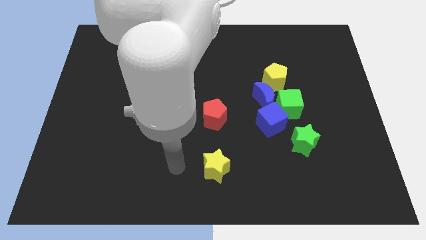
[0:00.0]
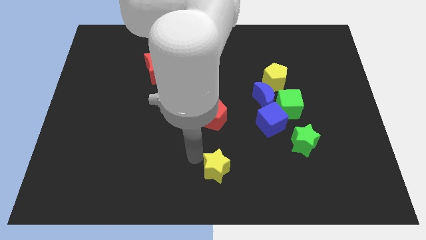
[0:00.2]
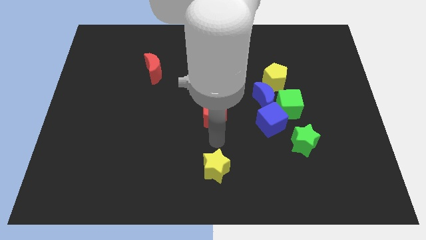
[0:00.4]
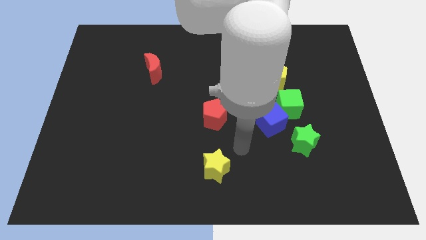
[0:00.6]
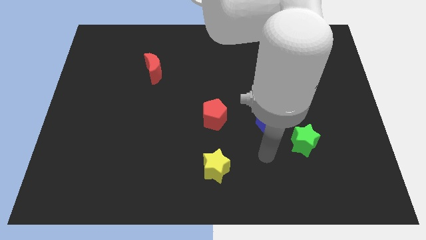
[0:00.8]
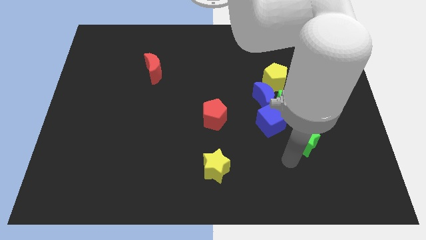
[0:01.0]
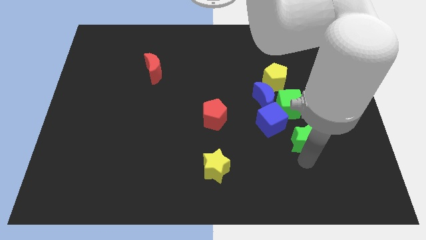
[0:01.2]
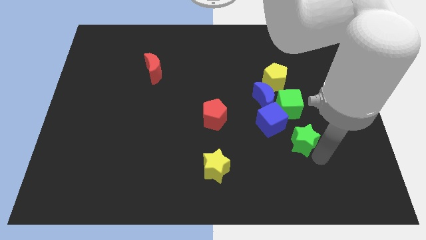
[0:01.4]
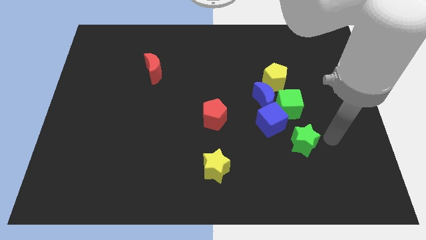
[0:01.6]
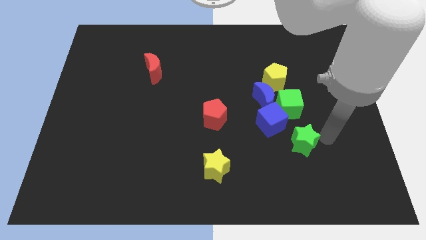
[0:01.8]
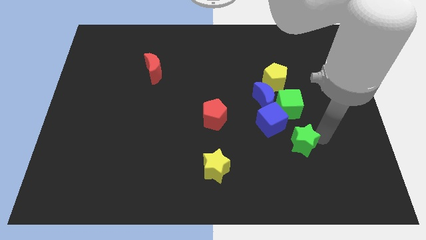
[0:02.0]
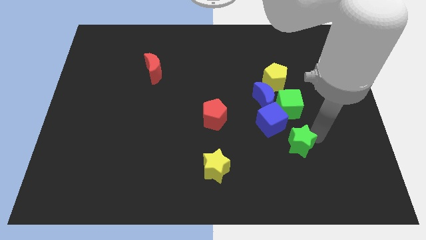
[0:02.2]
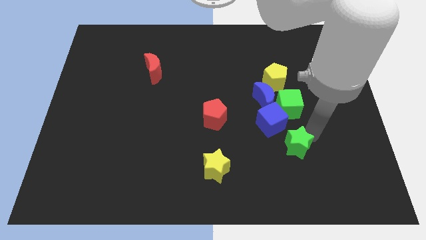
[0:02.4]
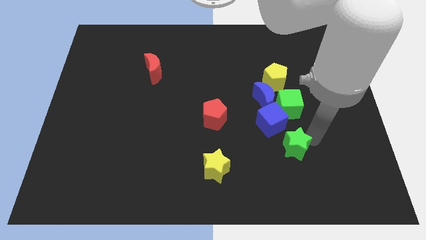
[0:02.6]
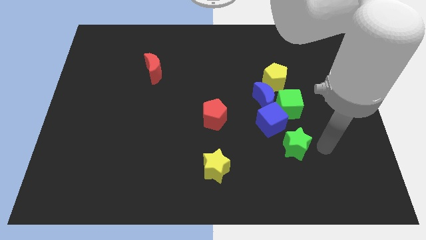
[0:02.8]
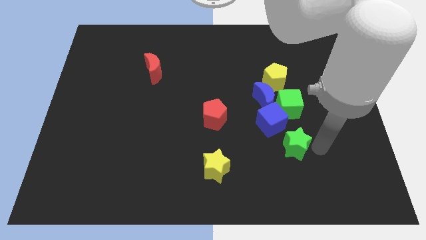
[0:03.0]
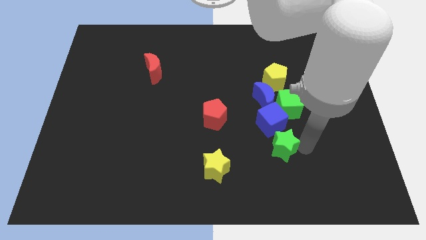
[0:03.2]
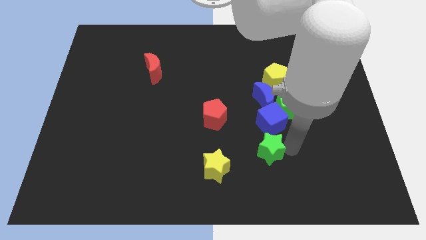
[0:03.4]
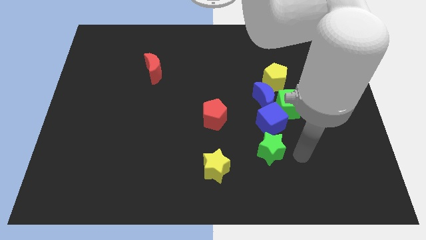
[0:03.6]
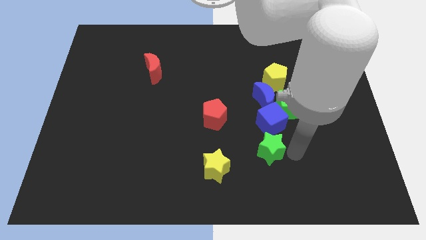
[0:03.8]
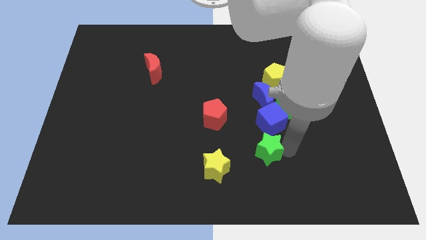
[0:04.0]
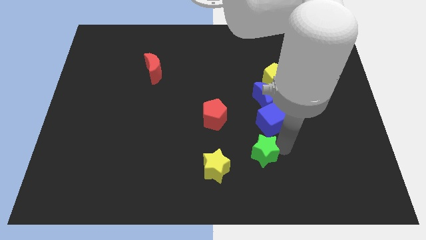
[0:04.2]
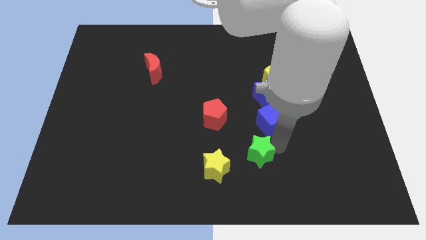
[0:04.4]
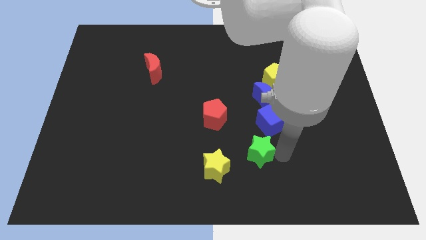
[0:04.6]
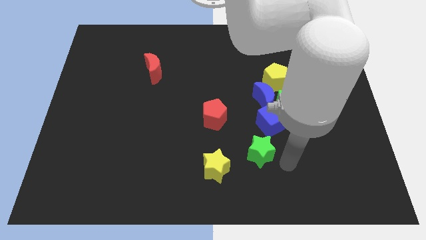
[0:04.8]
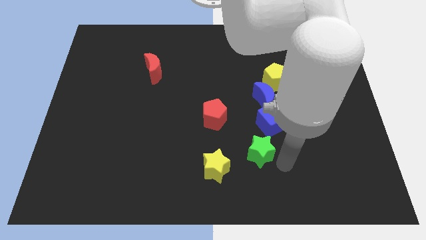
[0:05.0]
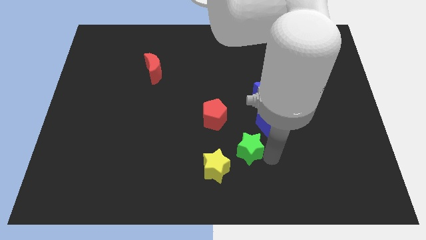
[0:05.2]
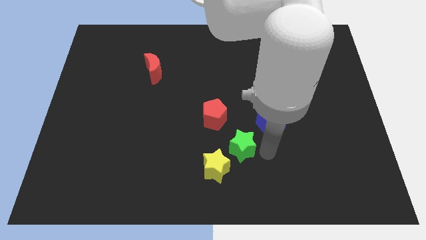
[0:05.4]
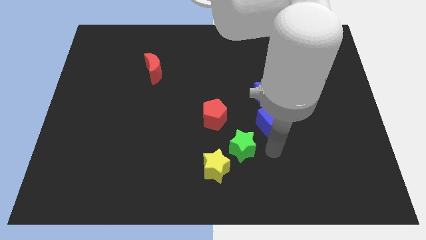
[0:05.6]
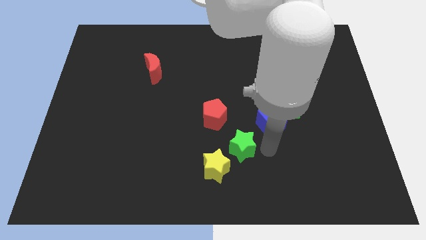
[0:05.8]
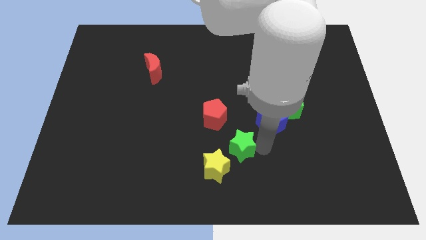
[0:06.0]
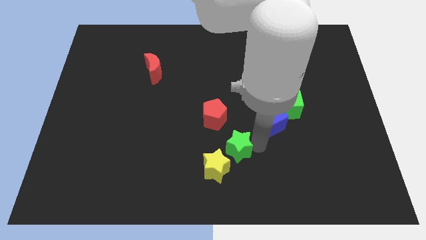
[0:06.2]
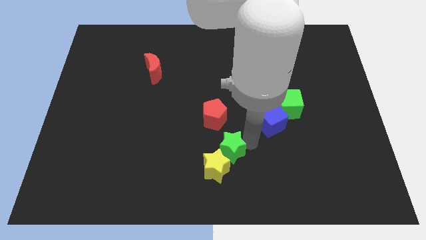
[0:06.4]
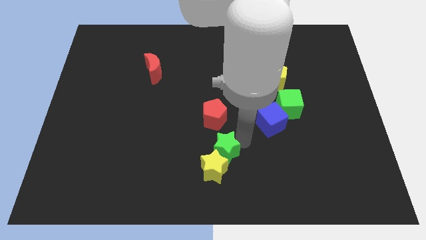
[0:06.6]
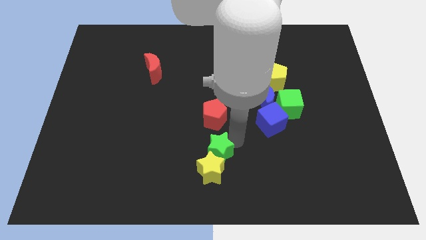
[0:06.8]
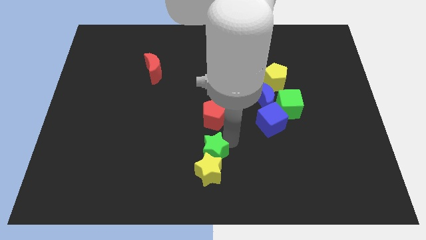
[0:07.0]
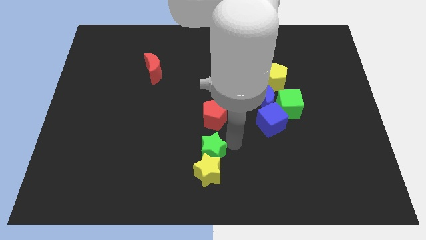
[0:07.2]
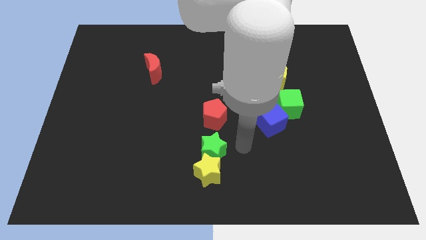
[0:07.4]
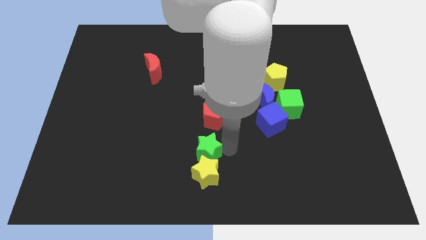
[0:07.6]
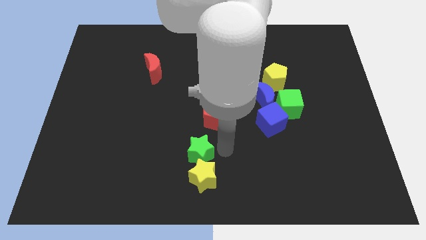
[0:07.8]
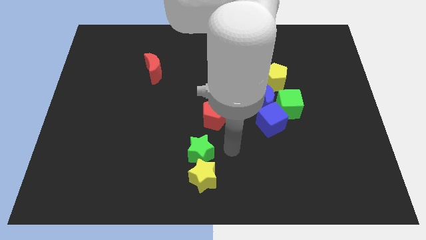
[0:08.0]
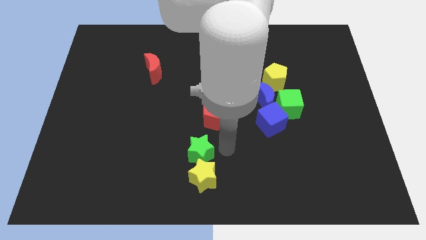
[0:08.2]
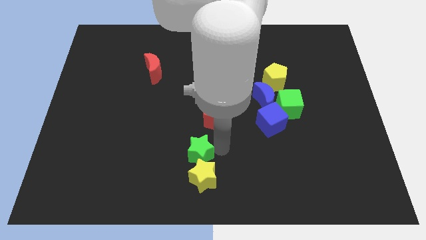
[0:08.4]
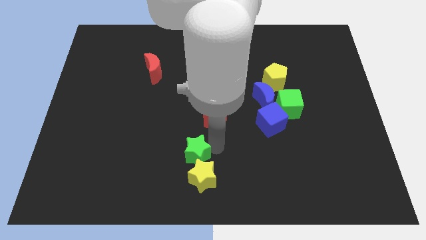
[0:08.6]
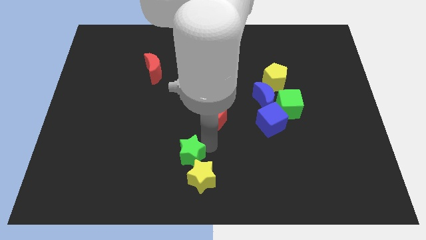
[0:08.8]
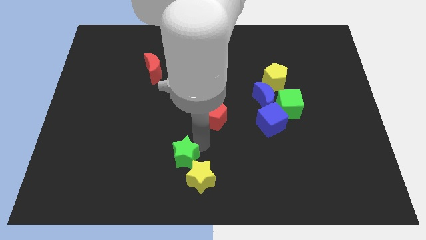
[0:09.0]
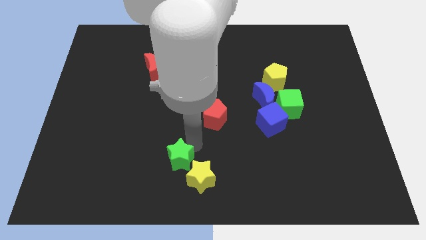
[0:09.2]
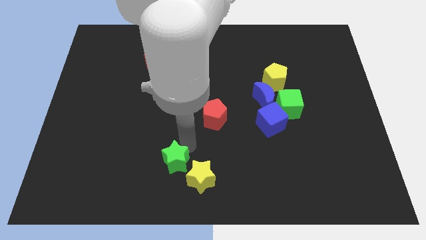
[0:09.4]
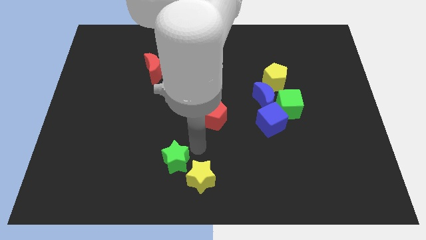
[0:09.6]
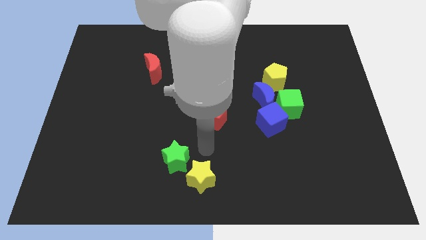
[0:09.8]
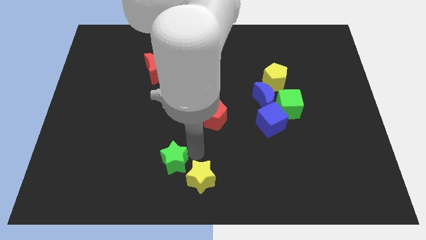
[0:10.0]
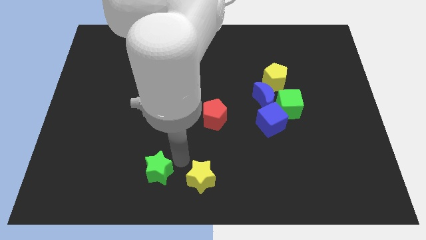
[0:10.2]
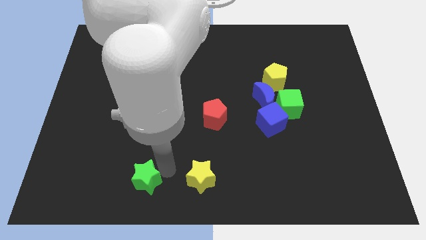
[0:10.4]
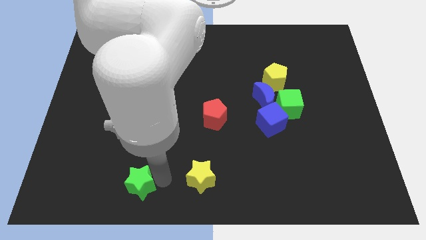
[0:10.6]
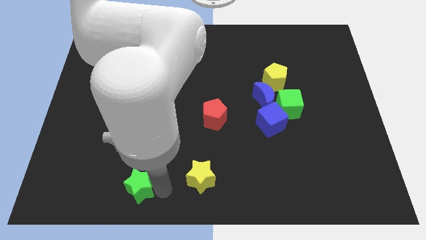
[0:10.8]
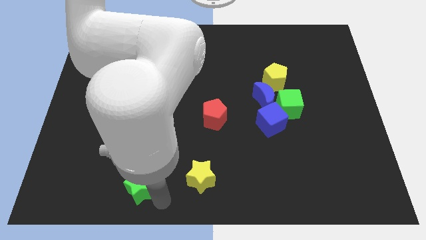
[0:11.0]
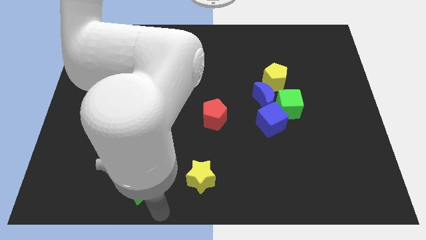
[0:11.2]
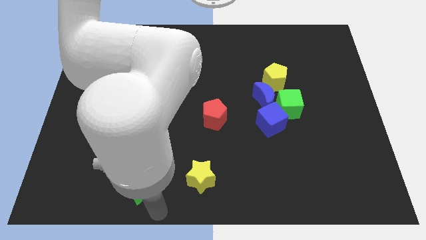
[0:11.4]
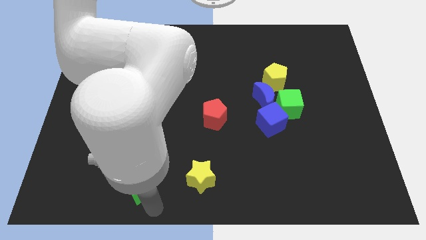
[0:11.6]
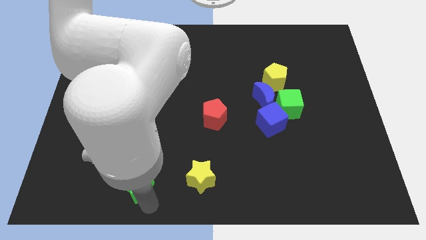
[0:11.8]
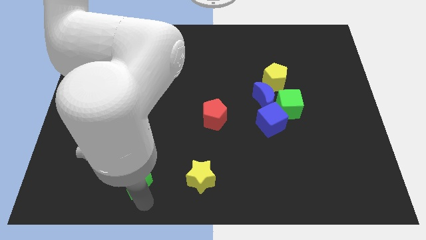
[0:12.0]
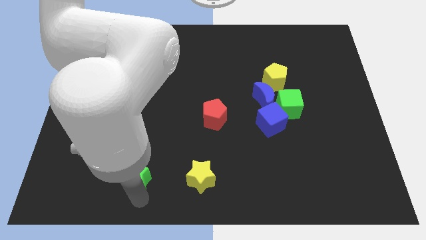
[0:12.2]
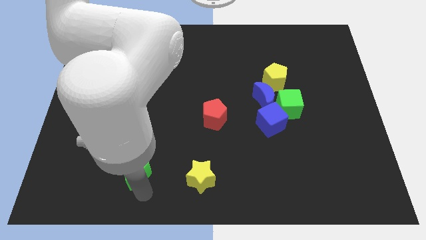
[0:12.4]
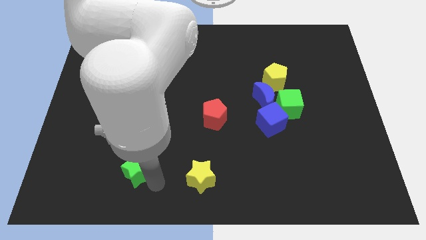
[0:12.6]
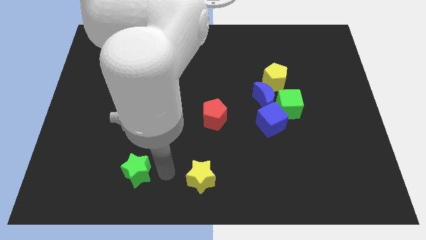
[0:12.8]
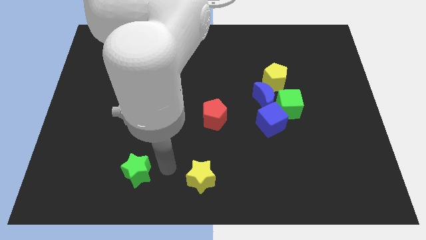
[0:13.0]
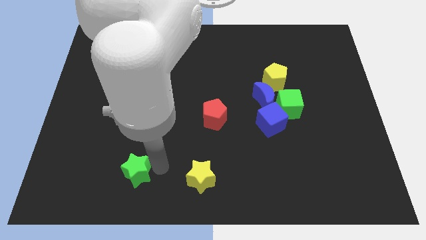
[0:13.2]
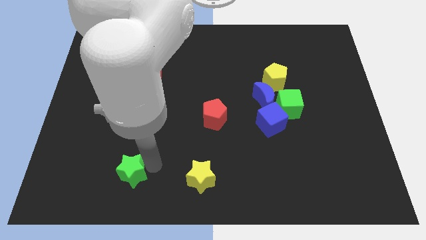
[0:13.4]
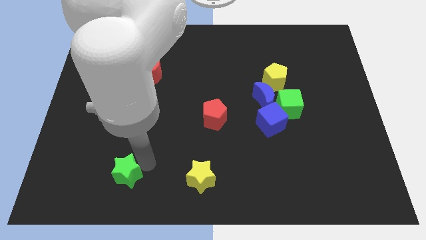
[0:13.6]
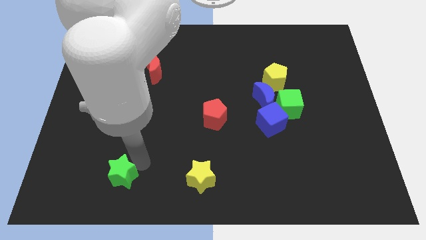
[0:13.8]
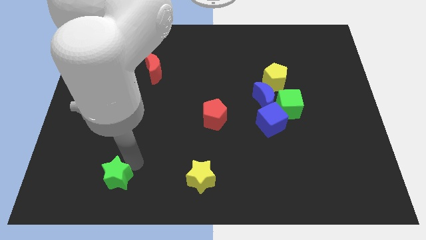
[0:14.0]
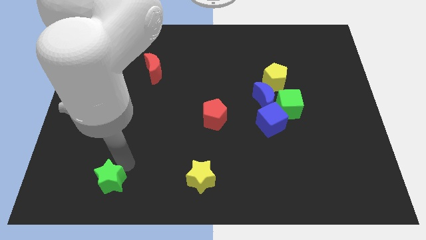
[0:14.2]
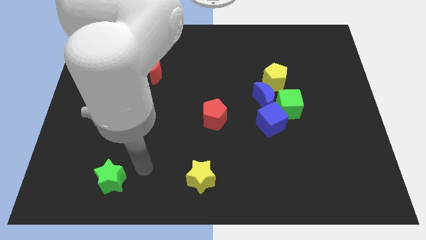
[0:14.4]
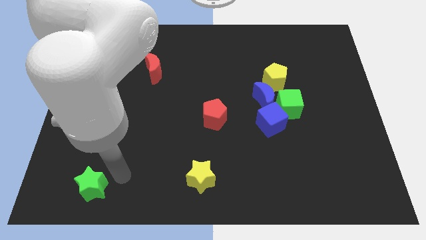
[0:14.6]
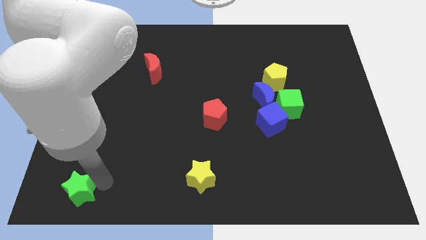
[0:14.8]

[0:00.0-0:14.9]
move the green star to the bottom left of the board
